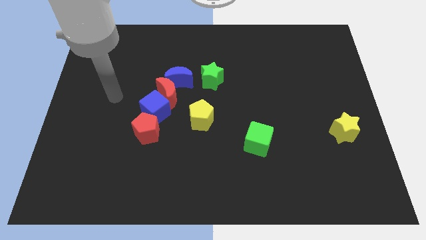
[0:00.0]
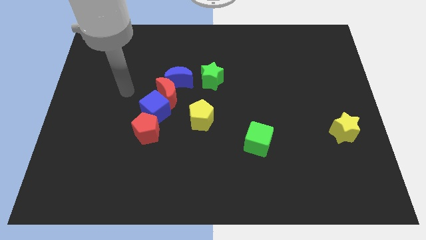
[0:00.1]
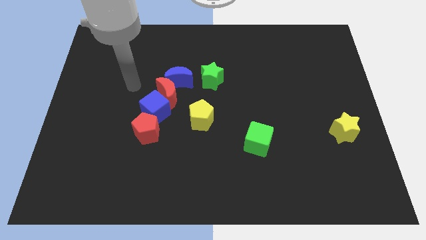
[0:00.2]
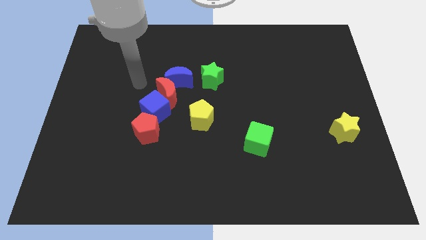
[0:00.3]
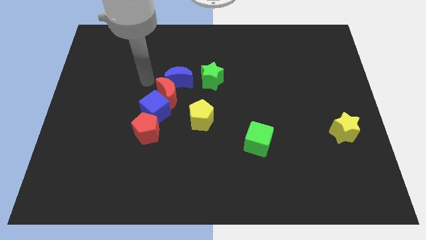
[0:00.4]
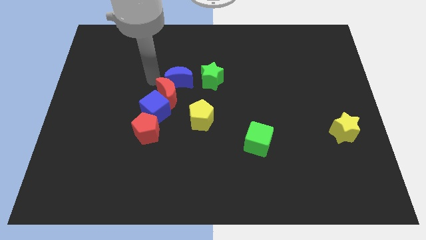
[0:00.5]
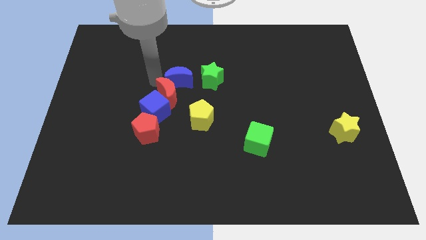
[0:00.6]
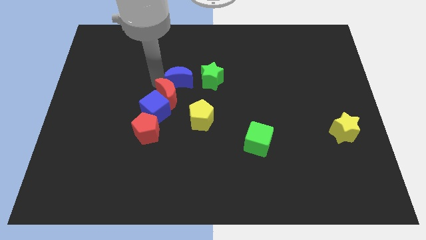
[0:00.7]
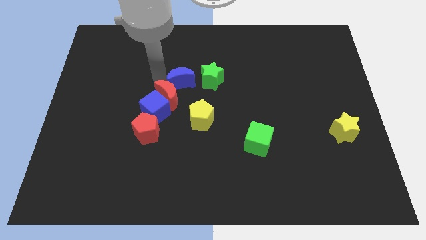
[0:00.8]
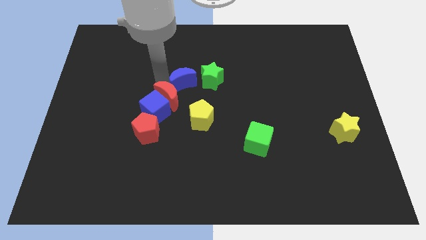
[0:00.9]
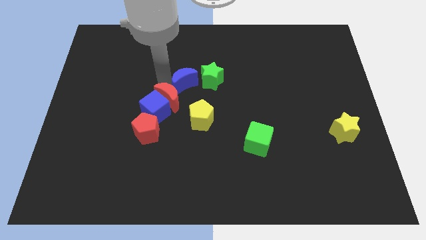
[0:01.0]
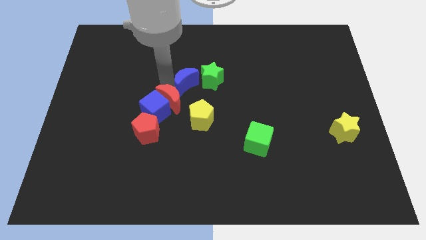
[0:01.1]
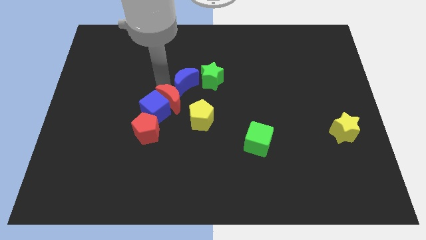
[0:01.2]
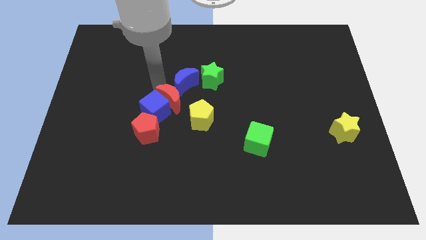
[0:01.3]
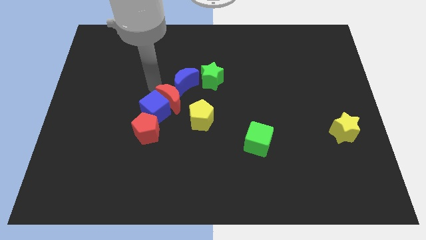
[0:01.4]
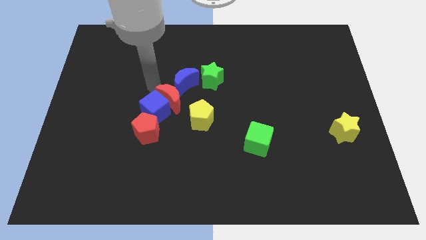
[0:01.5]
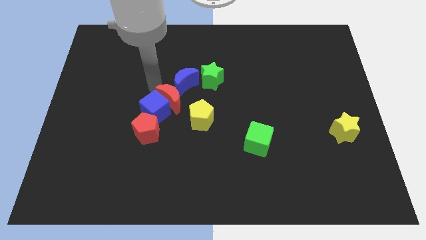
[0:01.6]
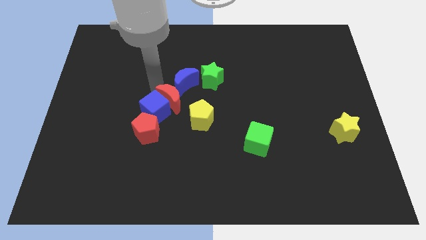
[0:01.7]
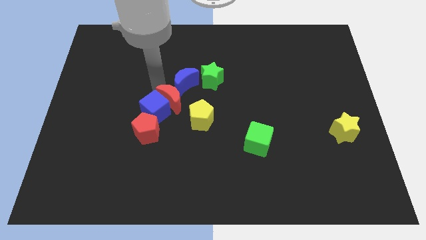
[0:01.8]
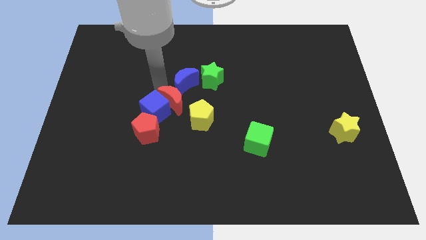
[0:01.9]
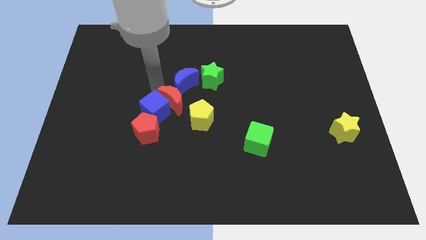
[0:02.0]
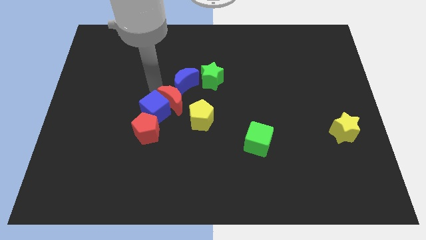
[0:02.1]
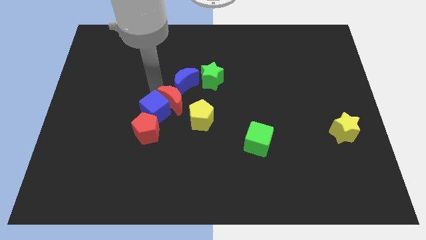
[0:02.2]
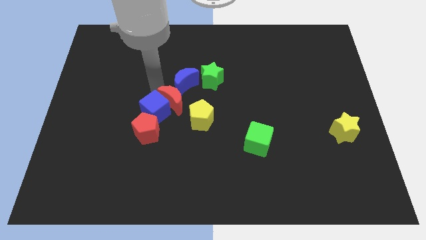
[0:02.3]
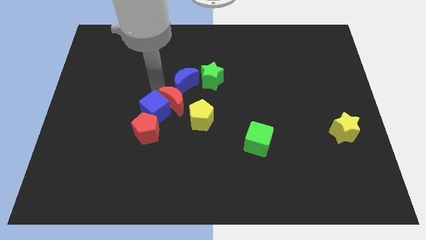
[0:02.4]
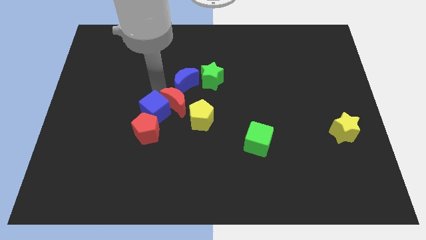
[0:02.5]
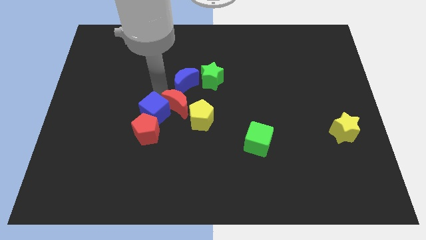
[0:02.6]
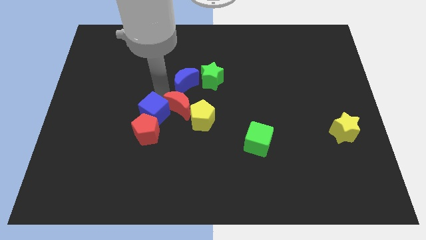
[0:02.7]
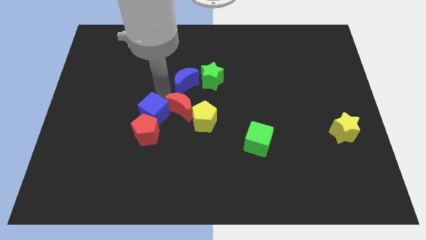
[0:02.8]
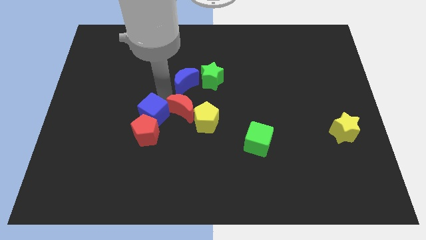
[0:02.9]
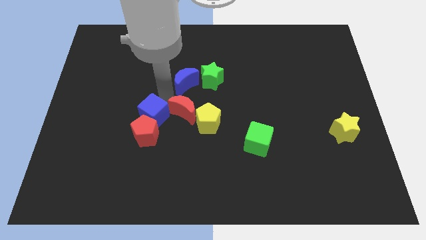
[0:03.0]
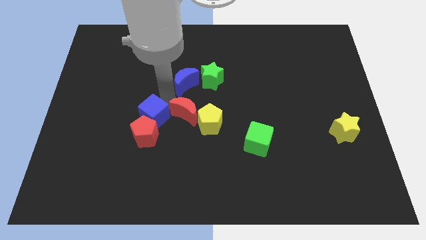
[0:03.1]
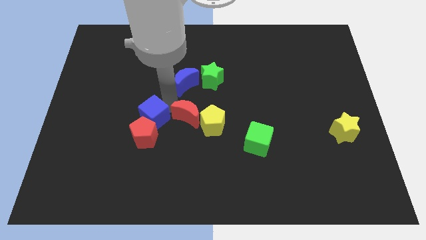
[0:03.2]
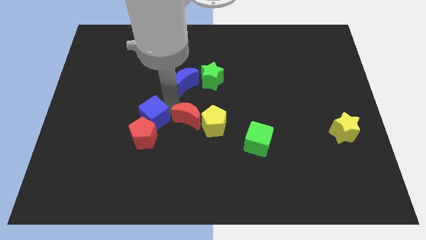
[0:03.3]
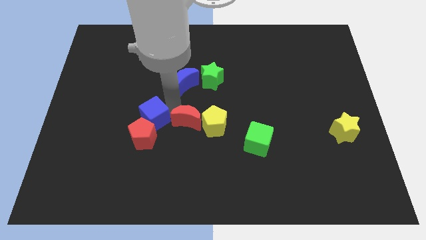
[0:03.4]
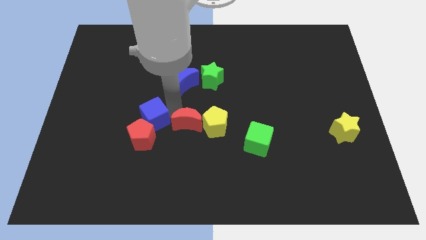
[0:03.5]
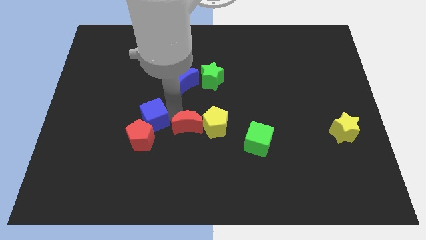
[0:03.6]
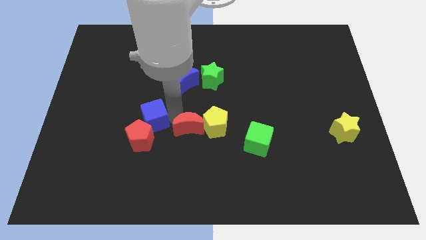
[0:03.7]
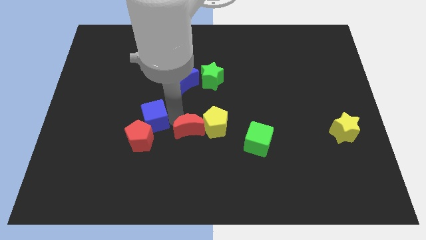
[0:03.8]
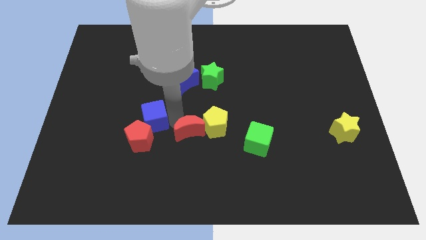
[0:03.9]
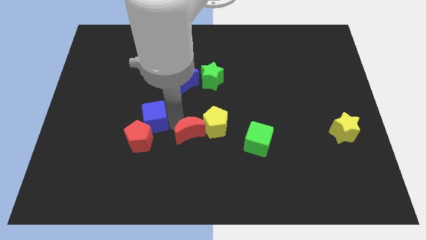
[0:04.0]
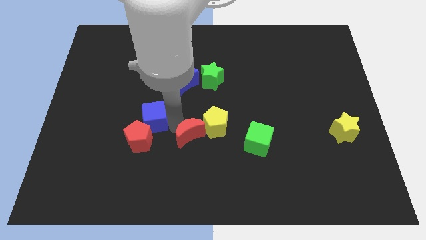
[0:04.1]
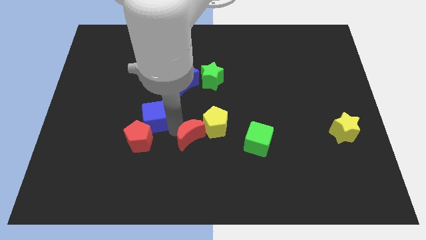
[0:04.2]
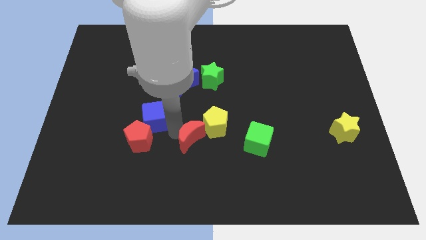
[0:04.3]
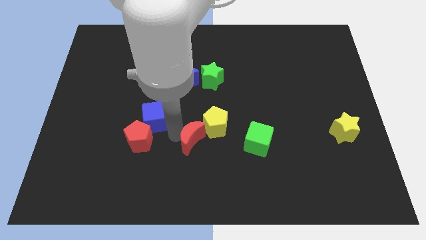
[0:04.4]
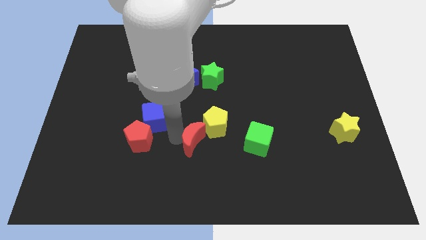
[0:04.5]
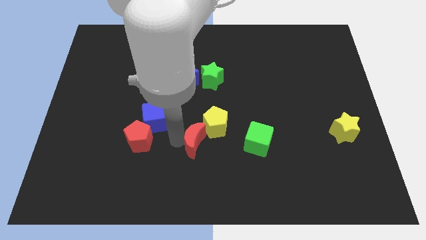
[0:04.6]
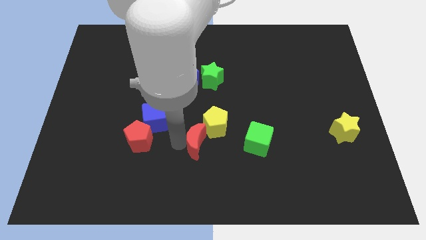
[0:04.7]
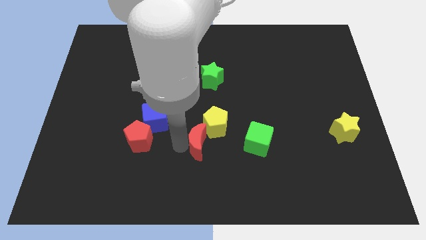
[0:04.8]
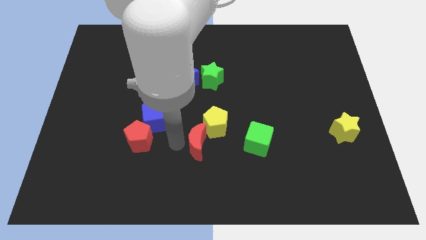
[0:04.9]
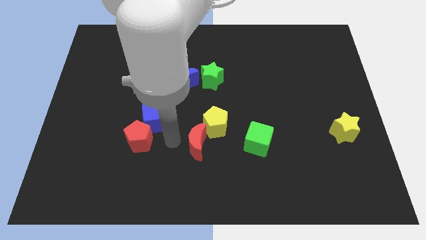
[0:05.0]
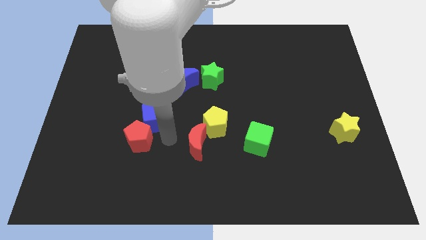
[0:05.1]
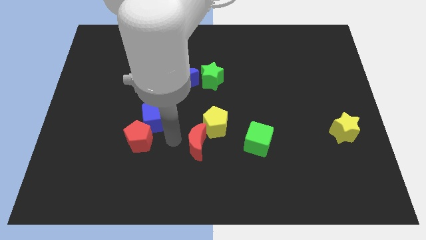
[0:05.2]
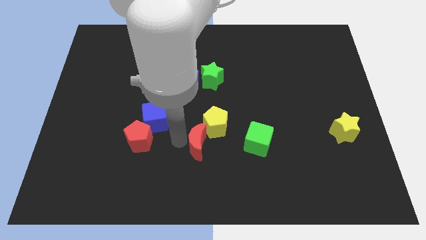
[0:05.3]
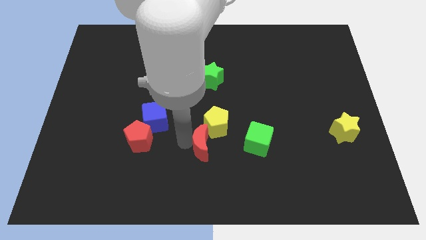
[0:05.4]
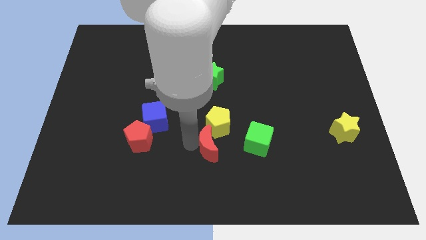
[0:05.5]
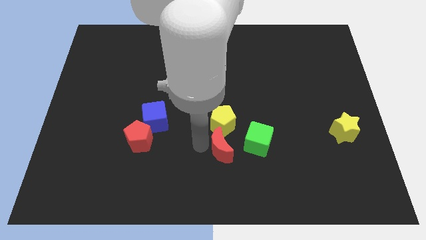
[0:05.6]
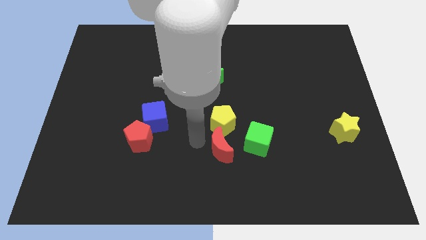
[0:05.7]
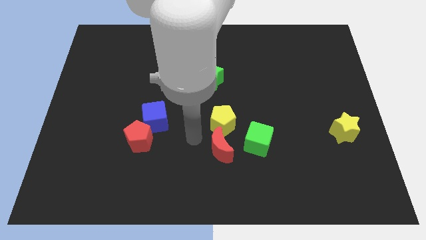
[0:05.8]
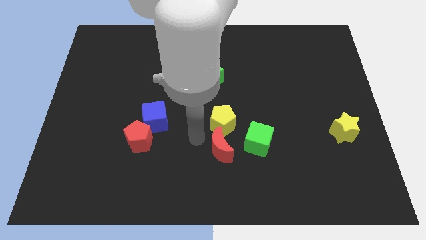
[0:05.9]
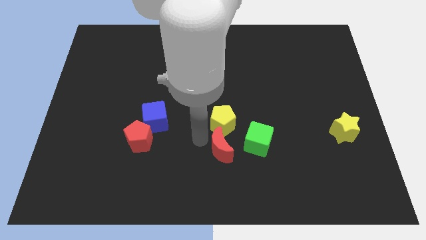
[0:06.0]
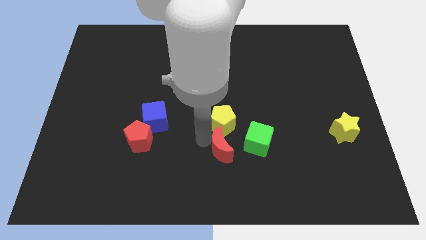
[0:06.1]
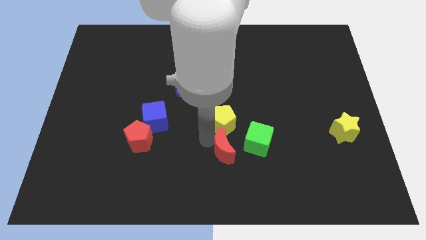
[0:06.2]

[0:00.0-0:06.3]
move the red moon downwards and to the right

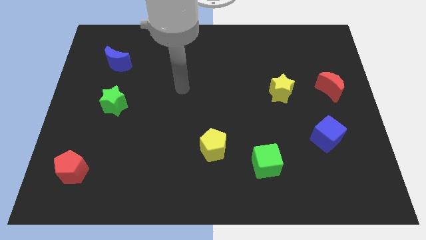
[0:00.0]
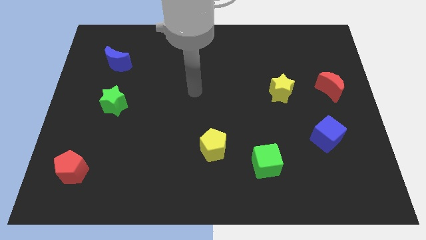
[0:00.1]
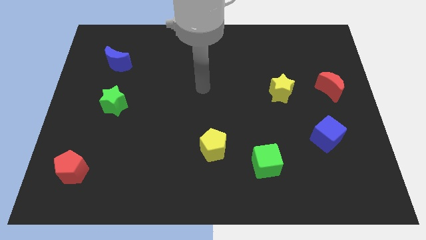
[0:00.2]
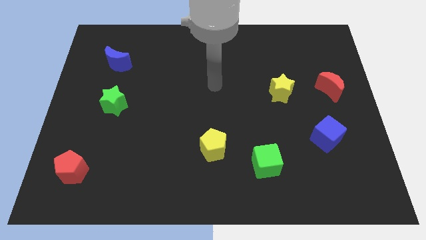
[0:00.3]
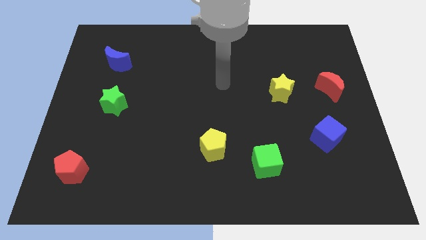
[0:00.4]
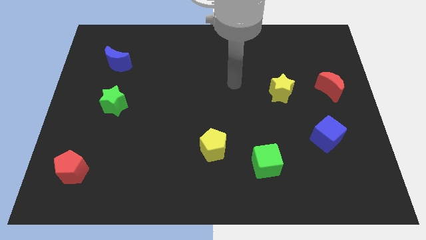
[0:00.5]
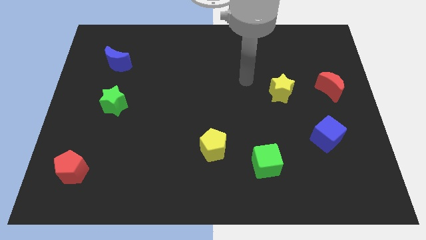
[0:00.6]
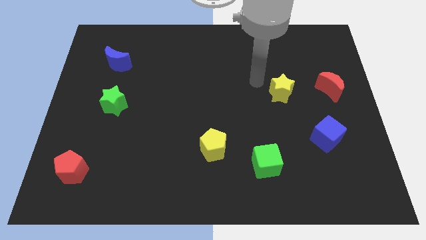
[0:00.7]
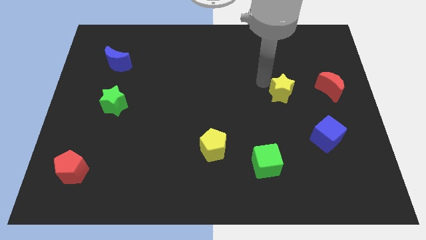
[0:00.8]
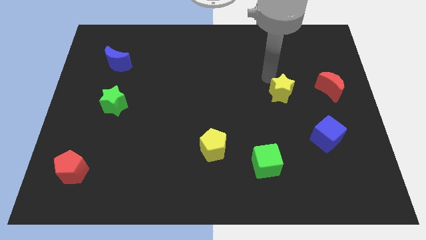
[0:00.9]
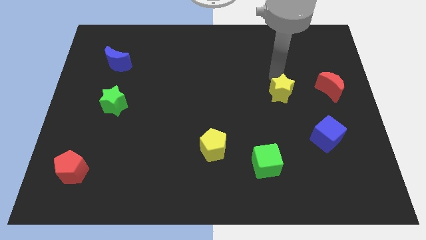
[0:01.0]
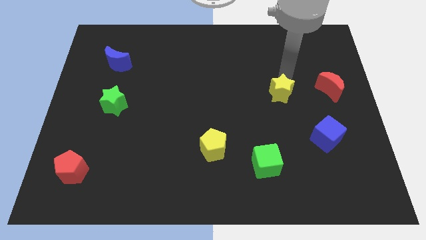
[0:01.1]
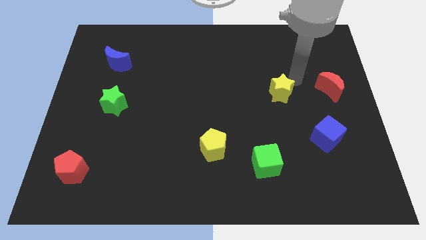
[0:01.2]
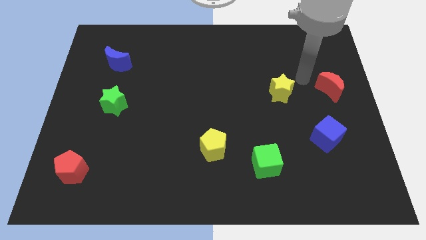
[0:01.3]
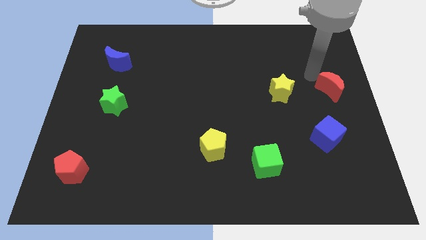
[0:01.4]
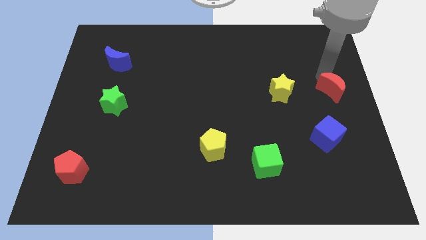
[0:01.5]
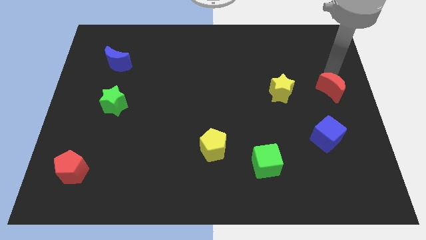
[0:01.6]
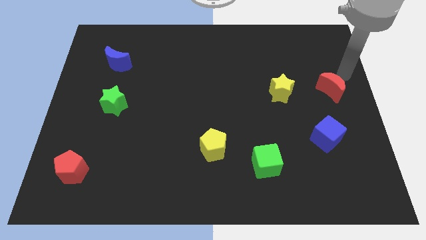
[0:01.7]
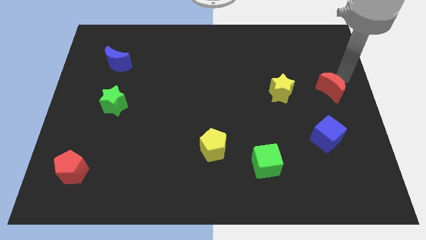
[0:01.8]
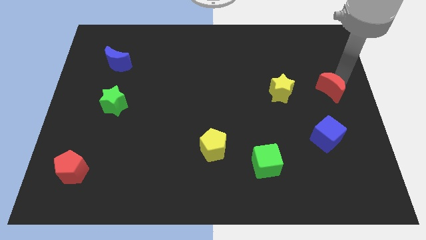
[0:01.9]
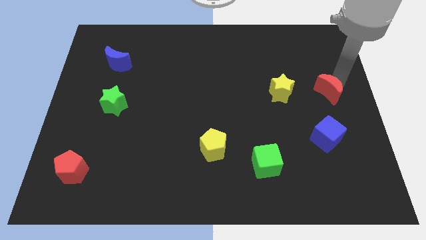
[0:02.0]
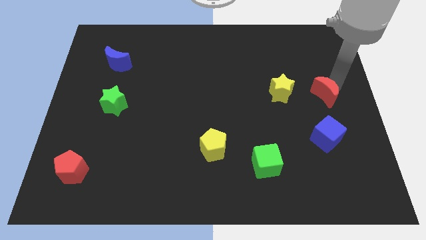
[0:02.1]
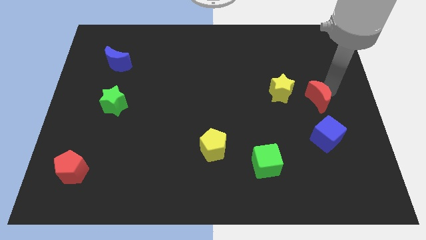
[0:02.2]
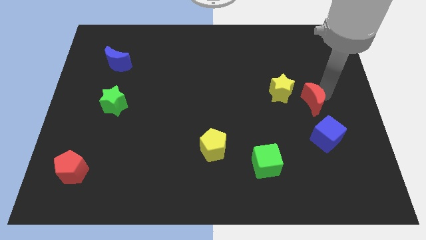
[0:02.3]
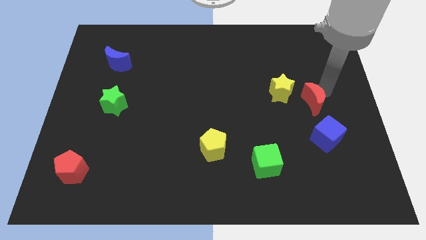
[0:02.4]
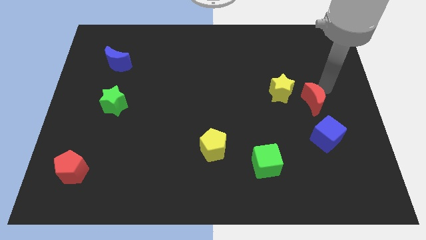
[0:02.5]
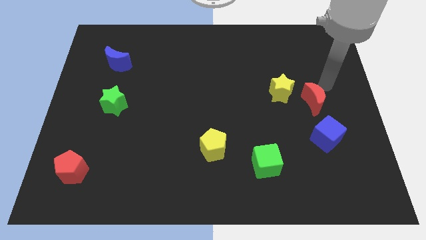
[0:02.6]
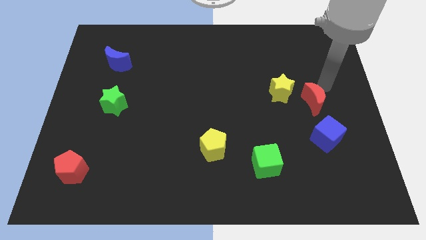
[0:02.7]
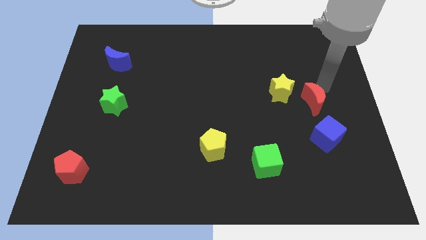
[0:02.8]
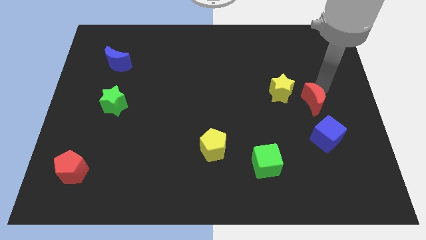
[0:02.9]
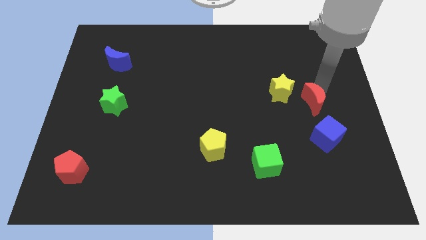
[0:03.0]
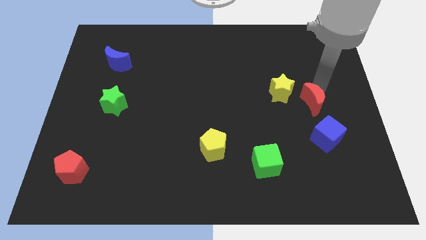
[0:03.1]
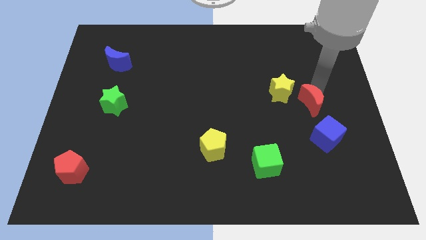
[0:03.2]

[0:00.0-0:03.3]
push the red moon somewhat down and then left
